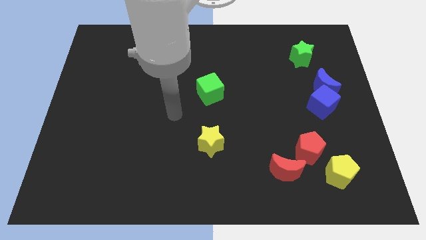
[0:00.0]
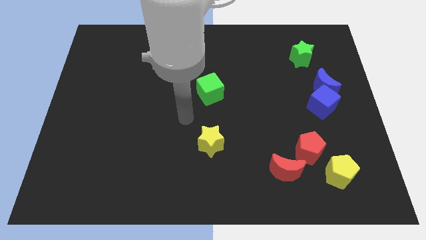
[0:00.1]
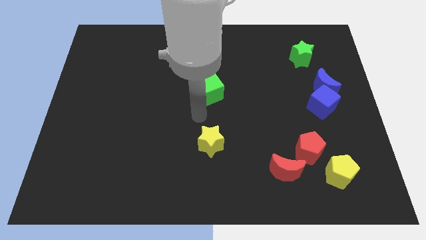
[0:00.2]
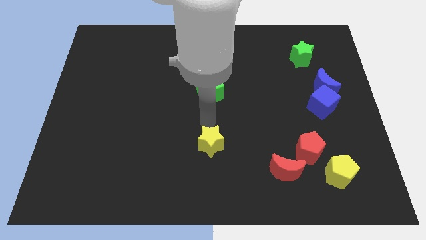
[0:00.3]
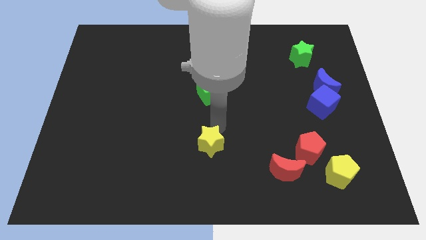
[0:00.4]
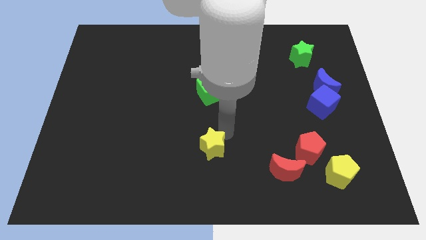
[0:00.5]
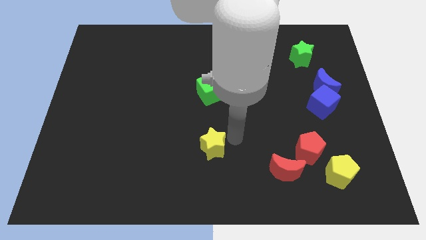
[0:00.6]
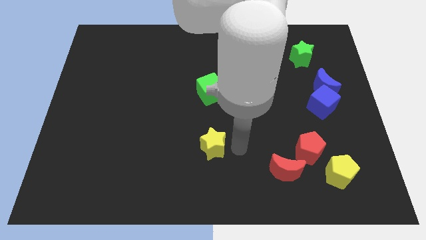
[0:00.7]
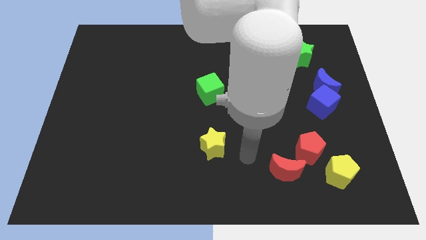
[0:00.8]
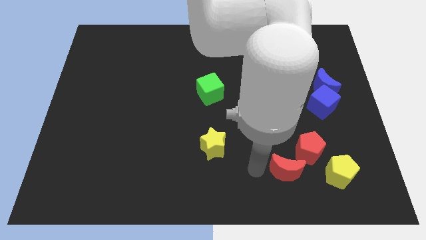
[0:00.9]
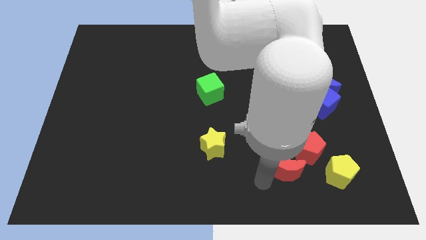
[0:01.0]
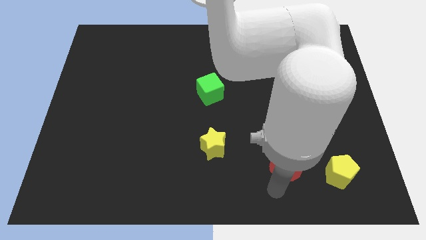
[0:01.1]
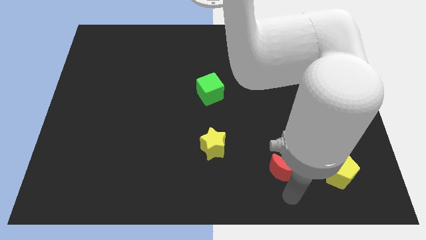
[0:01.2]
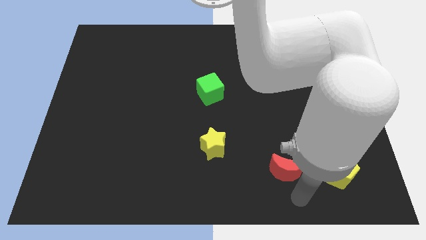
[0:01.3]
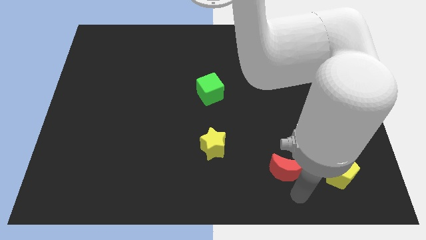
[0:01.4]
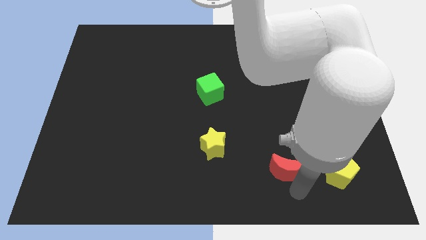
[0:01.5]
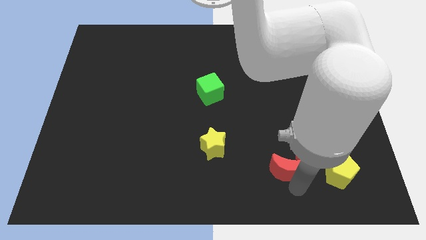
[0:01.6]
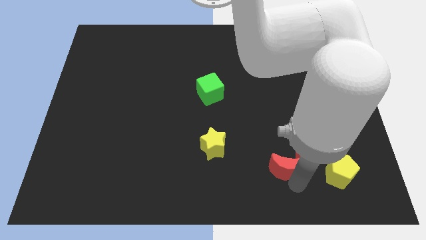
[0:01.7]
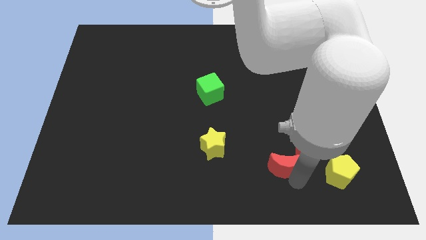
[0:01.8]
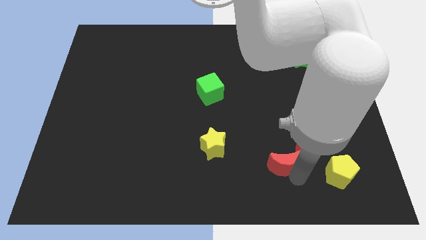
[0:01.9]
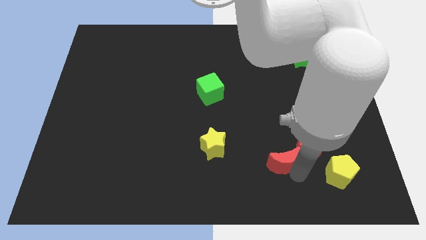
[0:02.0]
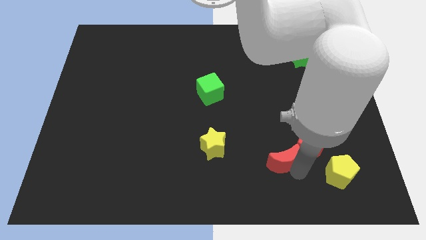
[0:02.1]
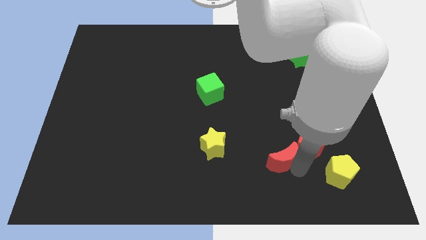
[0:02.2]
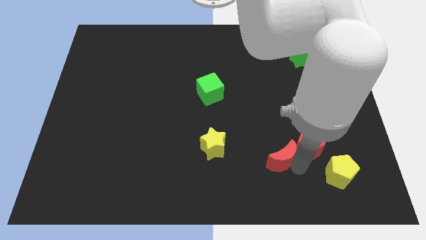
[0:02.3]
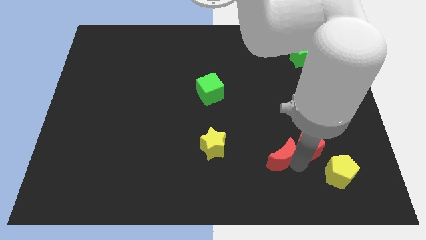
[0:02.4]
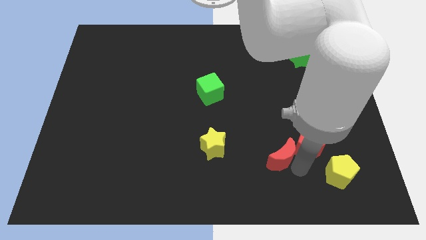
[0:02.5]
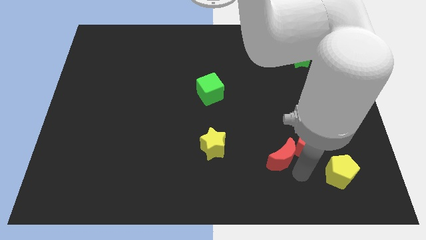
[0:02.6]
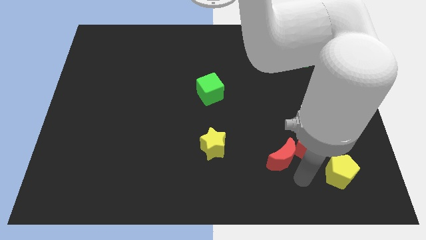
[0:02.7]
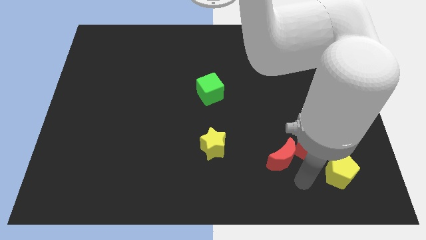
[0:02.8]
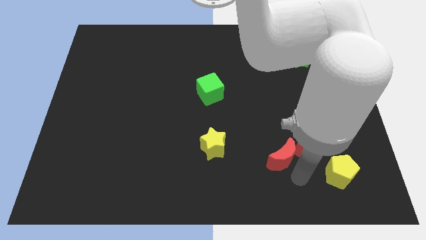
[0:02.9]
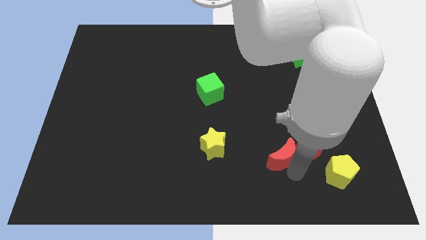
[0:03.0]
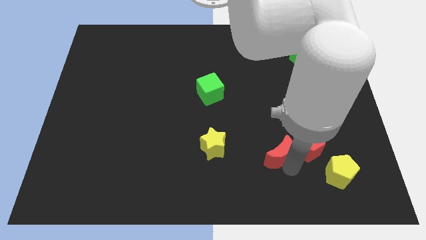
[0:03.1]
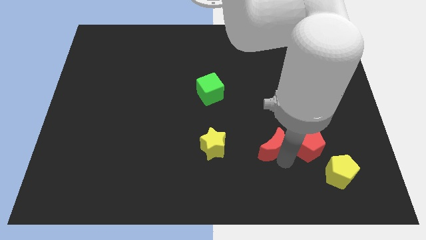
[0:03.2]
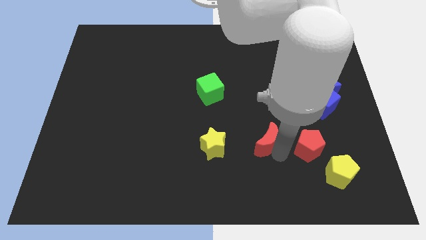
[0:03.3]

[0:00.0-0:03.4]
slightly push the red moon up and to the left

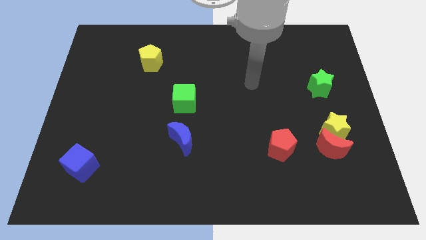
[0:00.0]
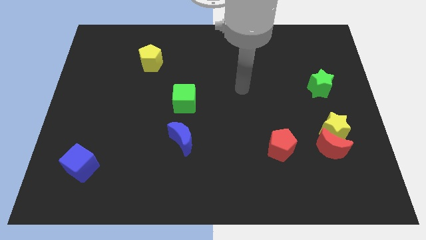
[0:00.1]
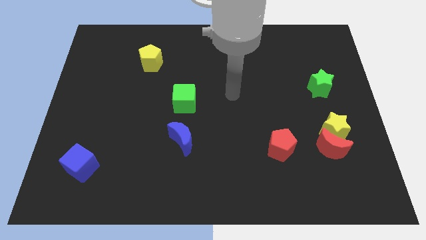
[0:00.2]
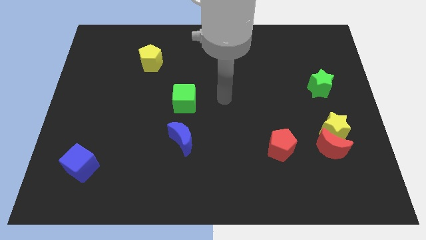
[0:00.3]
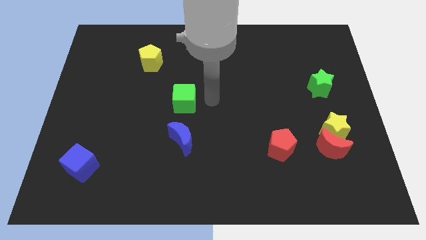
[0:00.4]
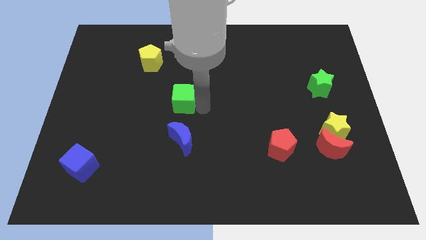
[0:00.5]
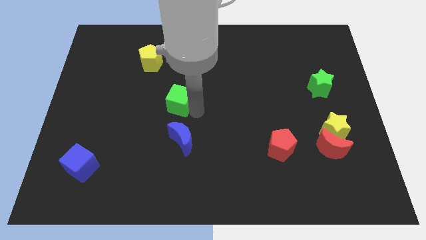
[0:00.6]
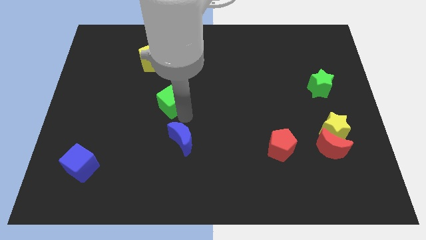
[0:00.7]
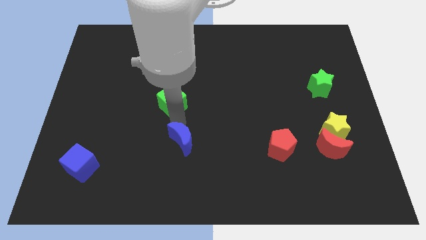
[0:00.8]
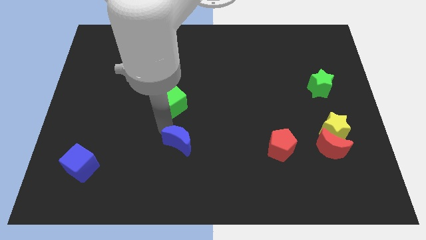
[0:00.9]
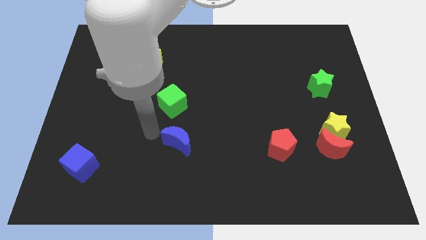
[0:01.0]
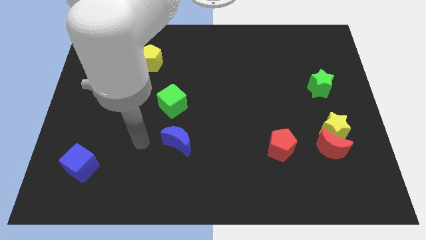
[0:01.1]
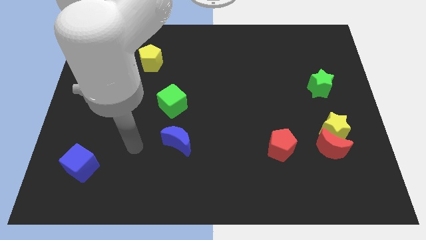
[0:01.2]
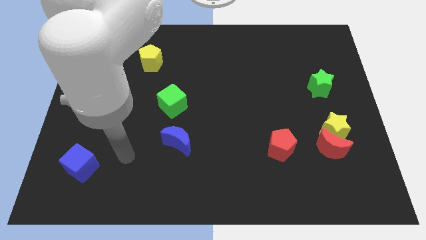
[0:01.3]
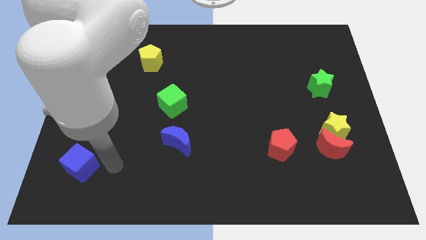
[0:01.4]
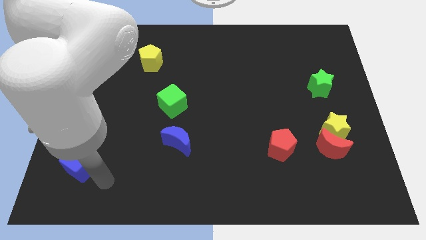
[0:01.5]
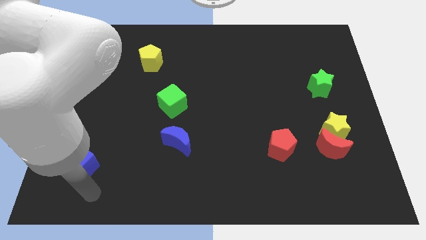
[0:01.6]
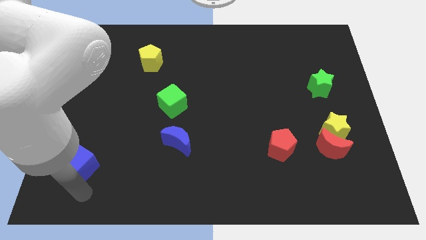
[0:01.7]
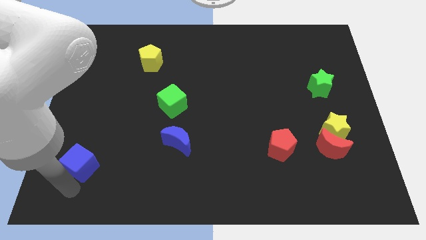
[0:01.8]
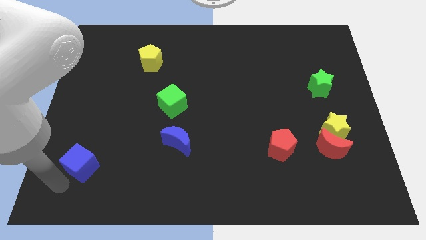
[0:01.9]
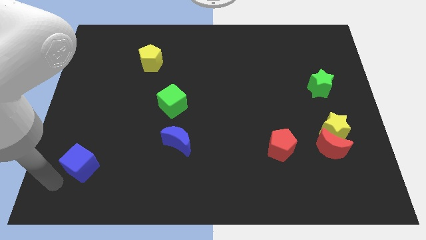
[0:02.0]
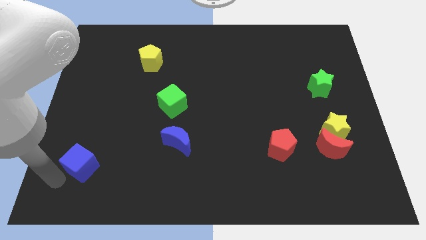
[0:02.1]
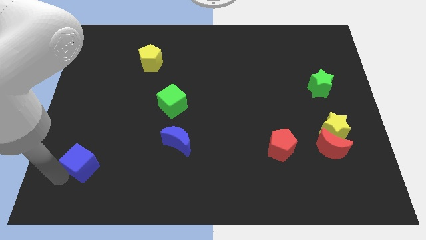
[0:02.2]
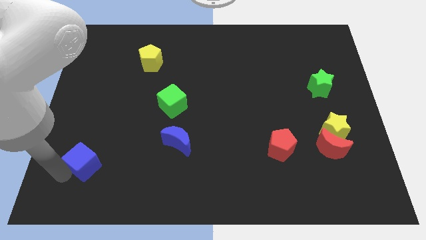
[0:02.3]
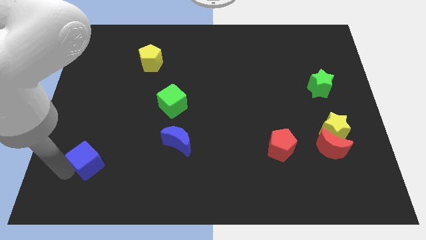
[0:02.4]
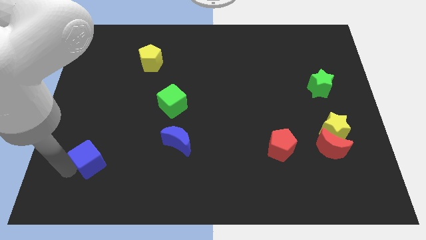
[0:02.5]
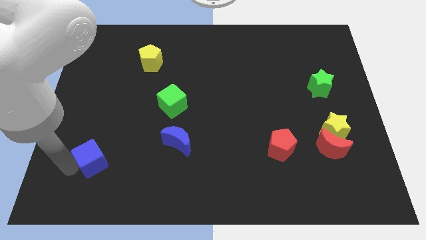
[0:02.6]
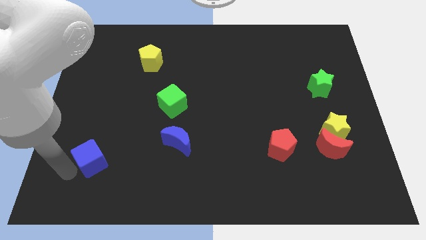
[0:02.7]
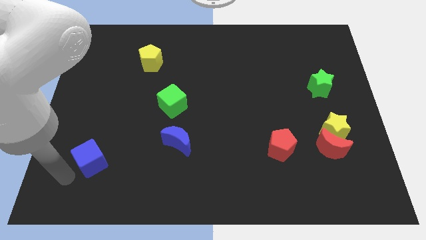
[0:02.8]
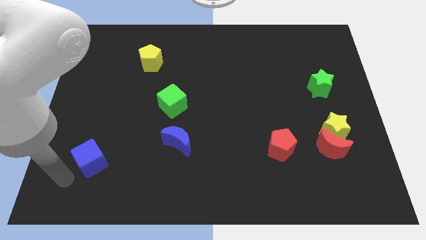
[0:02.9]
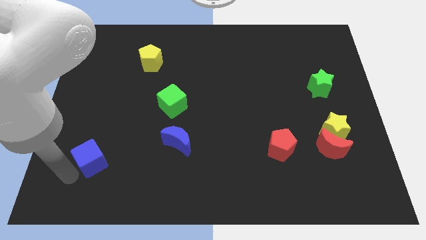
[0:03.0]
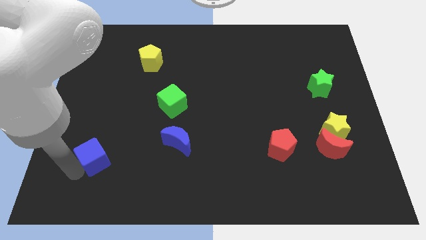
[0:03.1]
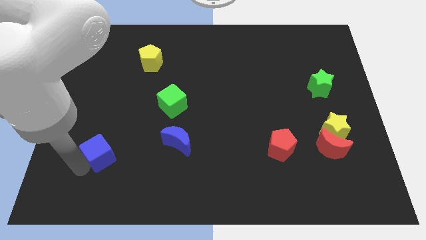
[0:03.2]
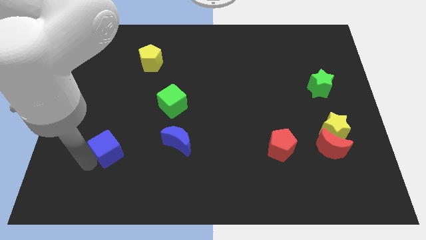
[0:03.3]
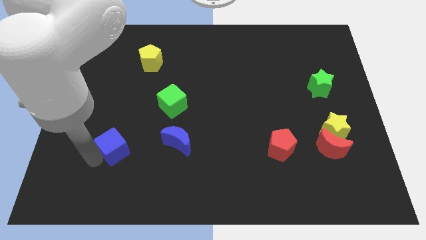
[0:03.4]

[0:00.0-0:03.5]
slide the blue cube somewhat up and then right

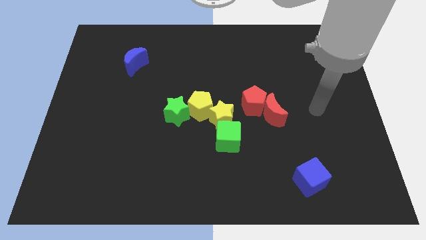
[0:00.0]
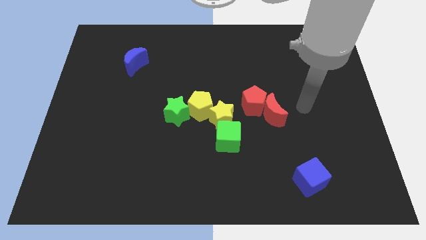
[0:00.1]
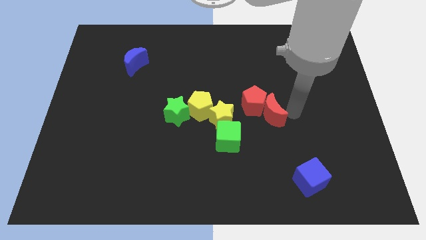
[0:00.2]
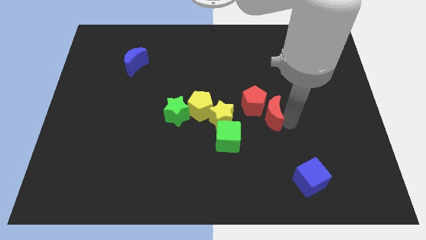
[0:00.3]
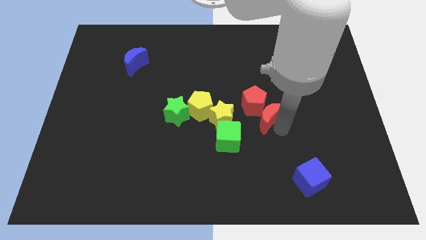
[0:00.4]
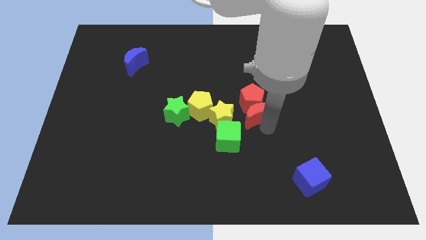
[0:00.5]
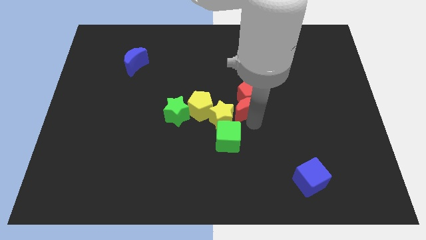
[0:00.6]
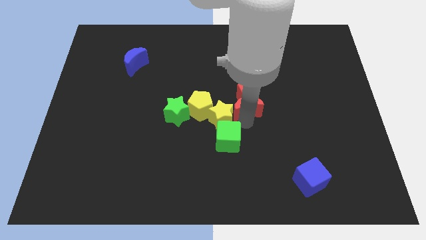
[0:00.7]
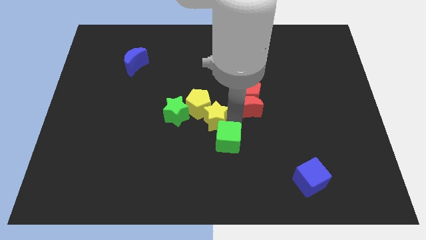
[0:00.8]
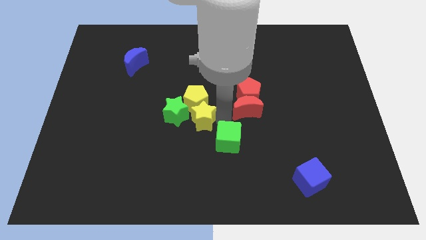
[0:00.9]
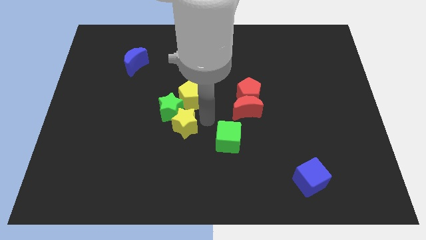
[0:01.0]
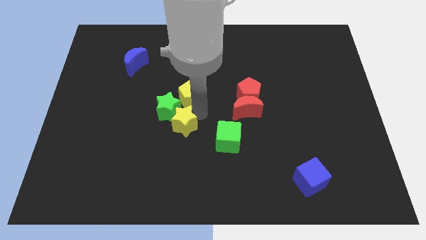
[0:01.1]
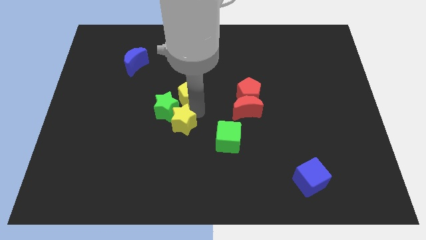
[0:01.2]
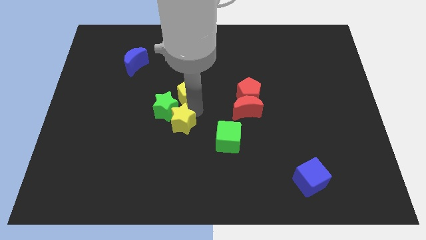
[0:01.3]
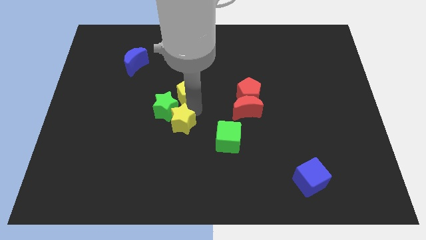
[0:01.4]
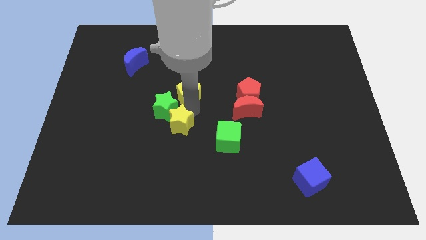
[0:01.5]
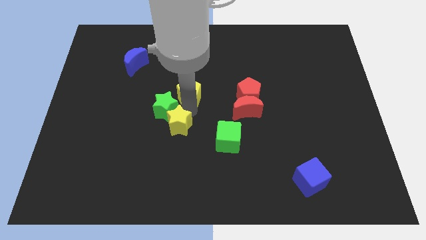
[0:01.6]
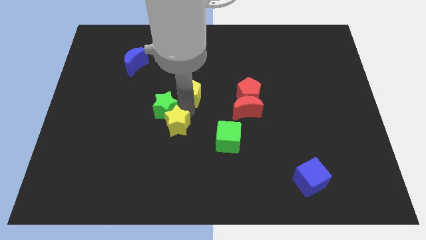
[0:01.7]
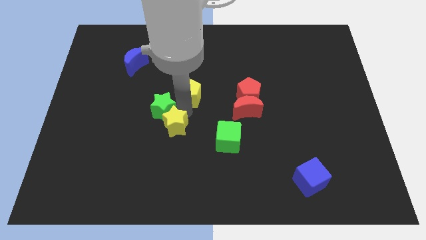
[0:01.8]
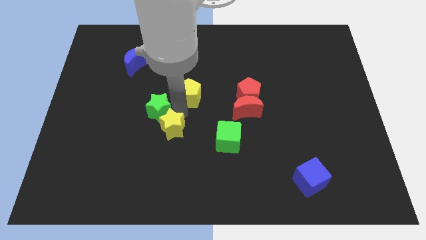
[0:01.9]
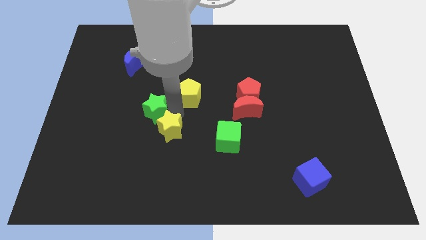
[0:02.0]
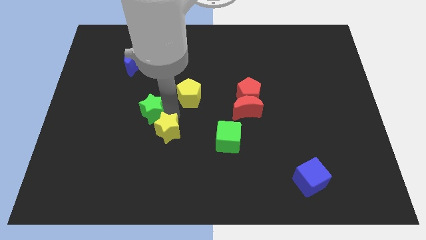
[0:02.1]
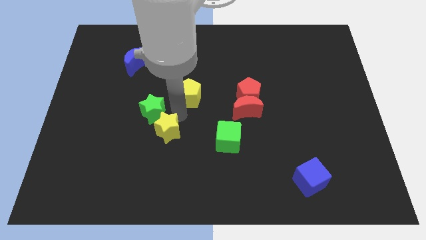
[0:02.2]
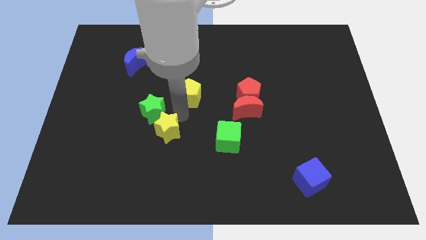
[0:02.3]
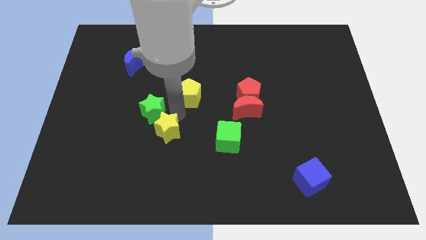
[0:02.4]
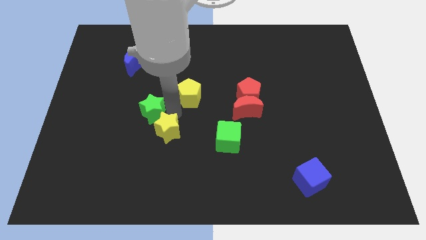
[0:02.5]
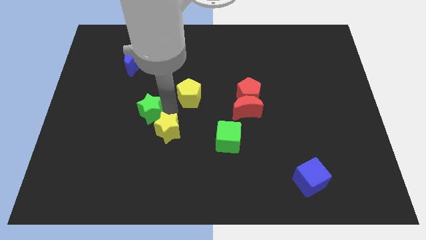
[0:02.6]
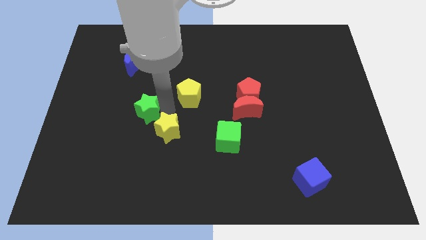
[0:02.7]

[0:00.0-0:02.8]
move the green star a little bit left
